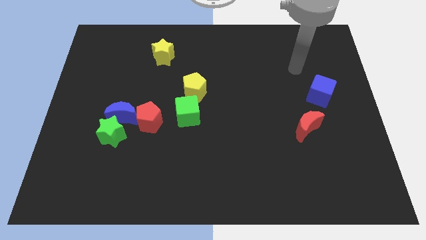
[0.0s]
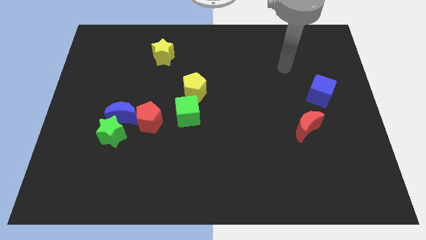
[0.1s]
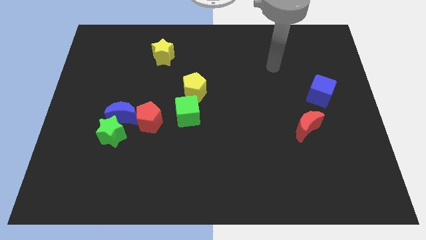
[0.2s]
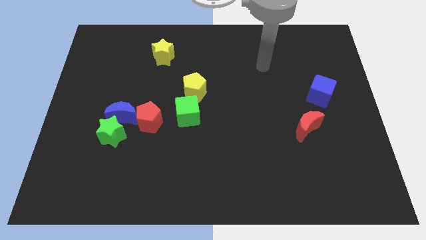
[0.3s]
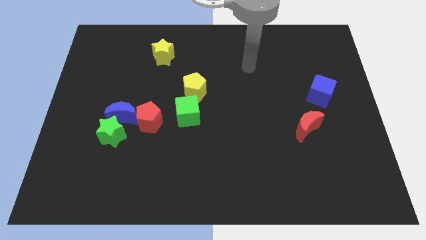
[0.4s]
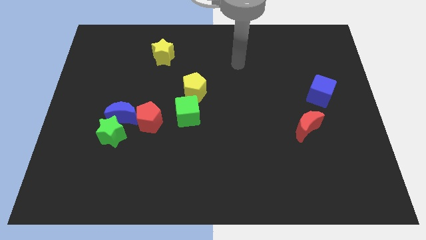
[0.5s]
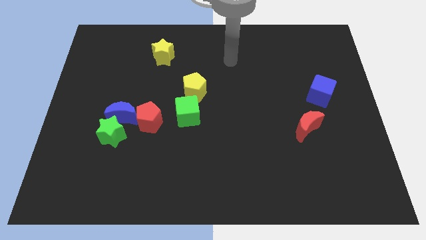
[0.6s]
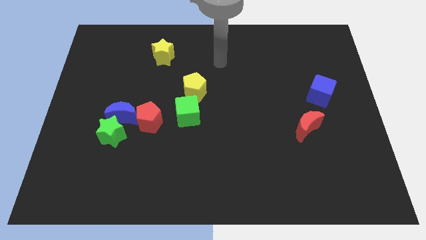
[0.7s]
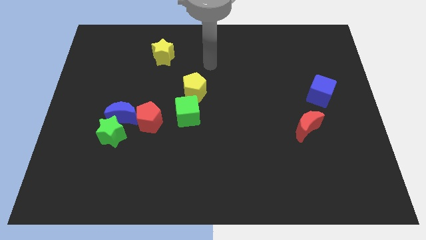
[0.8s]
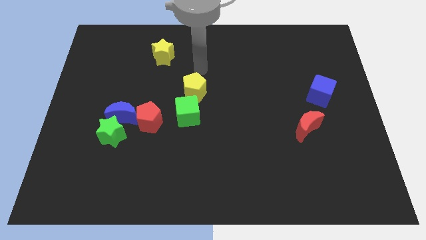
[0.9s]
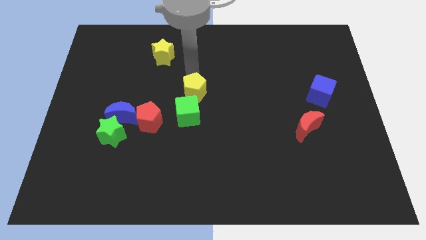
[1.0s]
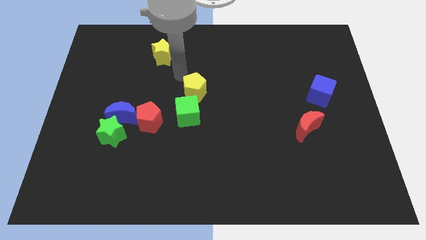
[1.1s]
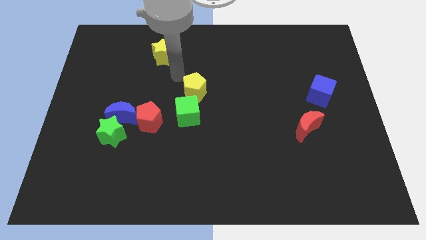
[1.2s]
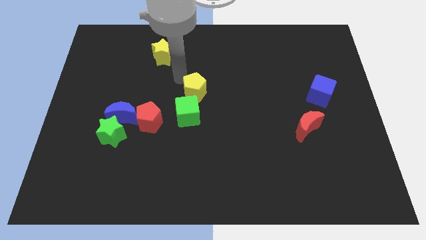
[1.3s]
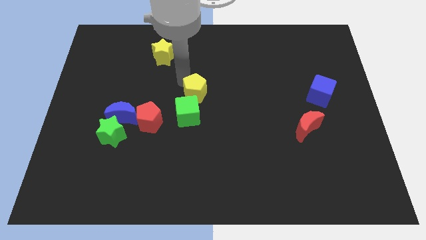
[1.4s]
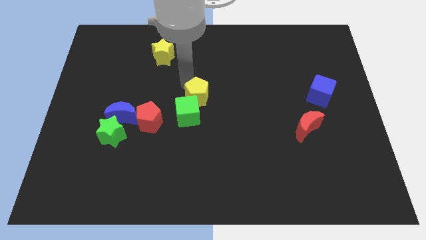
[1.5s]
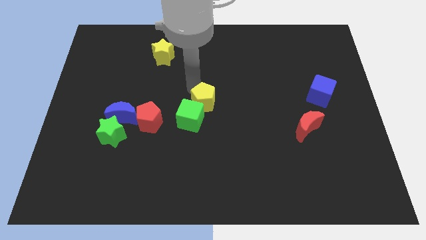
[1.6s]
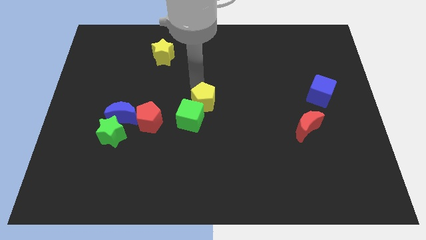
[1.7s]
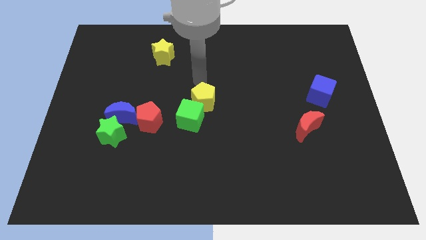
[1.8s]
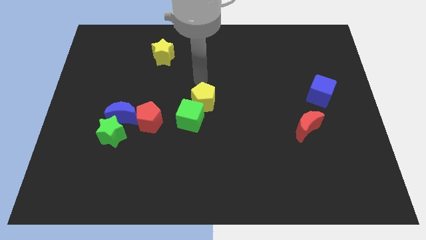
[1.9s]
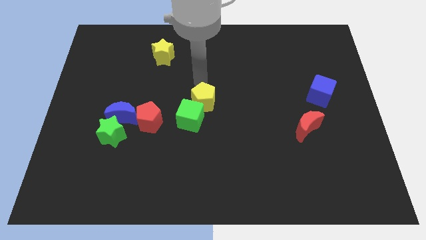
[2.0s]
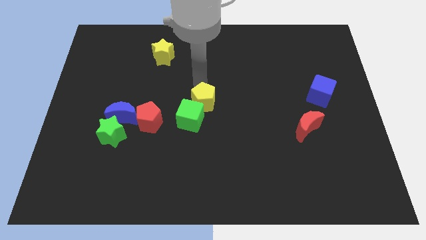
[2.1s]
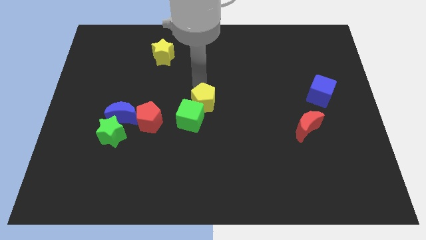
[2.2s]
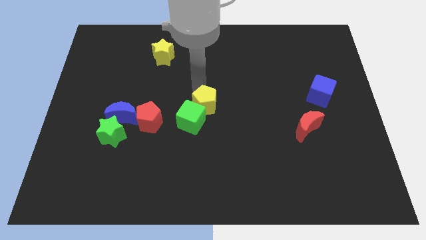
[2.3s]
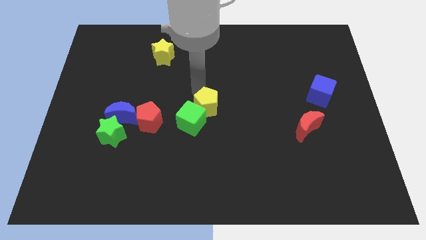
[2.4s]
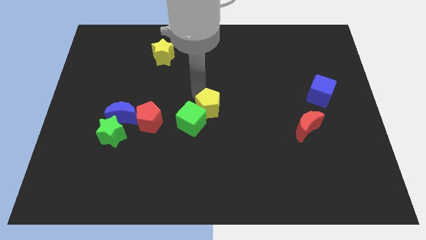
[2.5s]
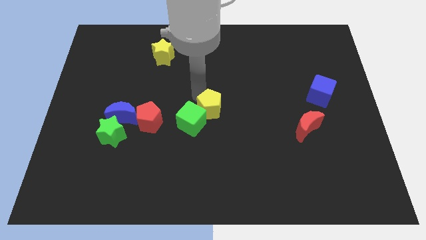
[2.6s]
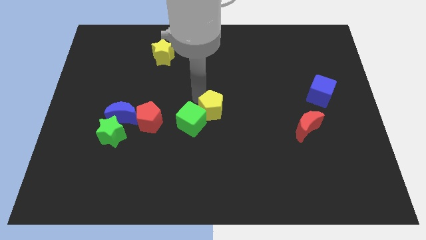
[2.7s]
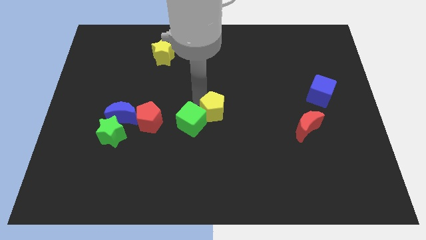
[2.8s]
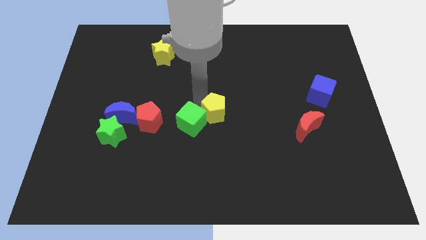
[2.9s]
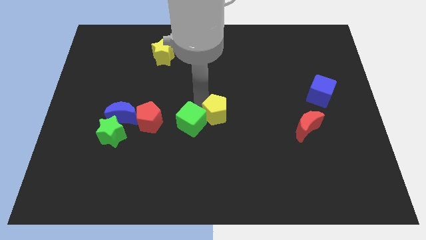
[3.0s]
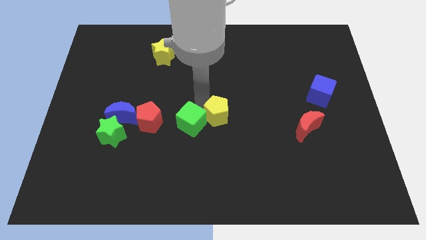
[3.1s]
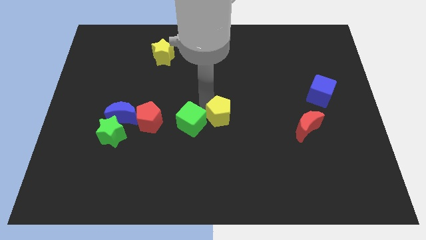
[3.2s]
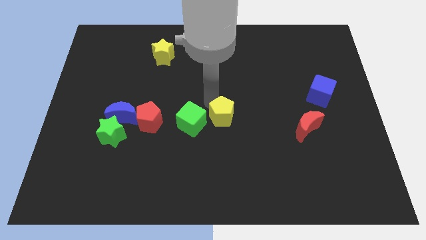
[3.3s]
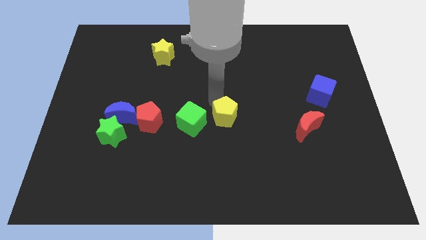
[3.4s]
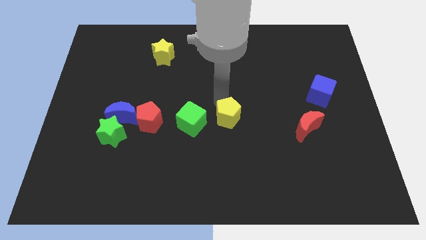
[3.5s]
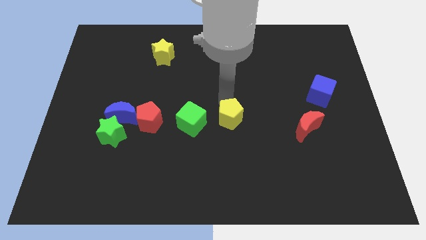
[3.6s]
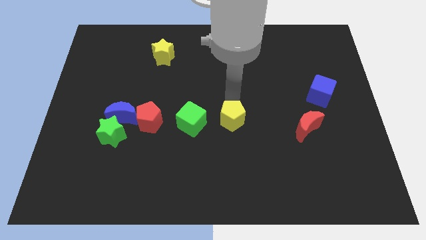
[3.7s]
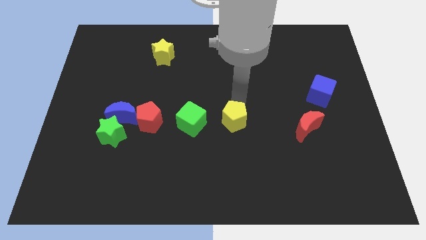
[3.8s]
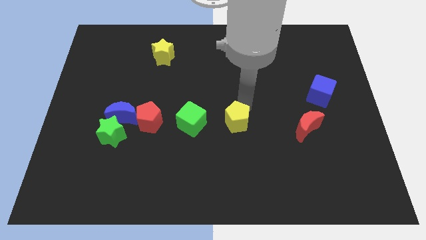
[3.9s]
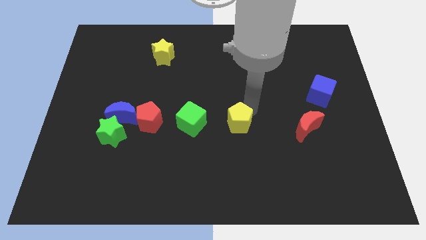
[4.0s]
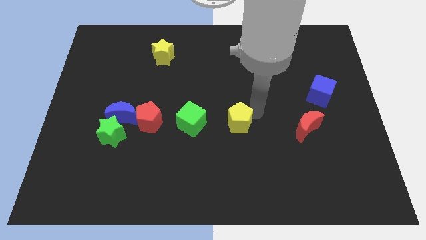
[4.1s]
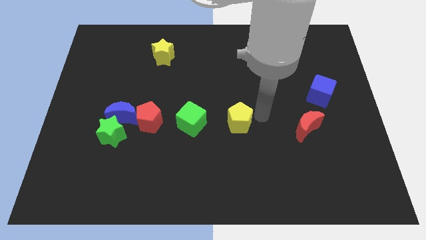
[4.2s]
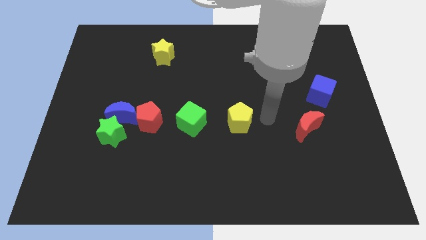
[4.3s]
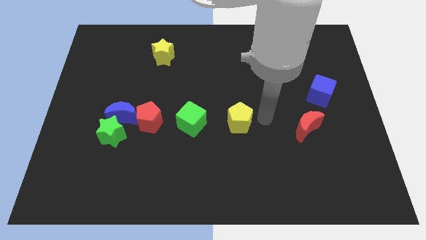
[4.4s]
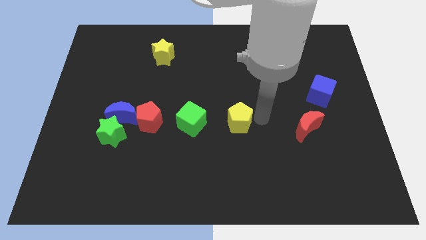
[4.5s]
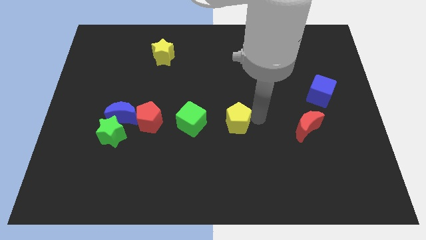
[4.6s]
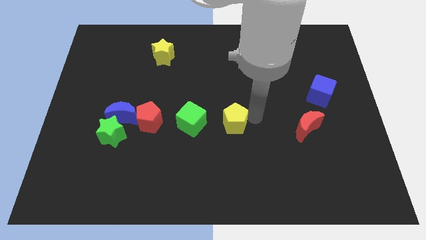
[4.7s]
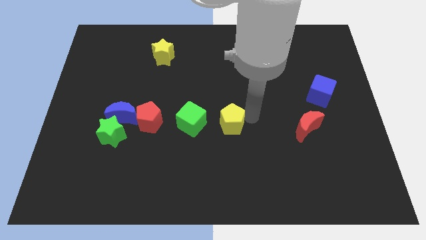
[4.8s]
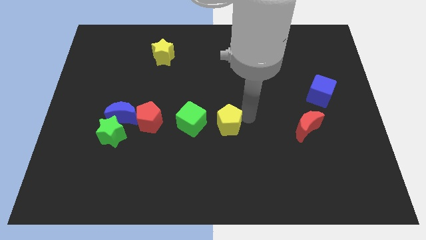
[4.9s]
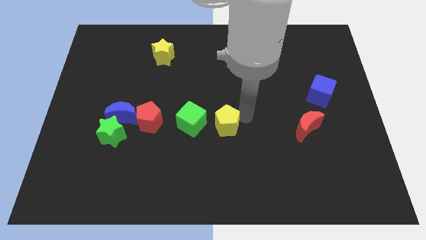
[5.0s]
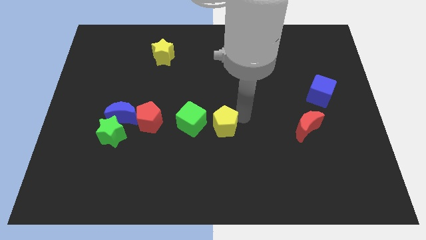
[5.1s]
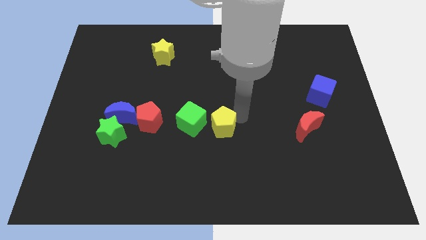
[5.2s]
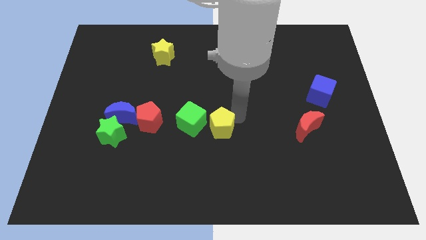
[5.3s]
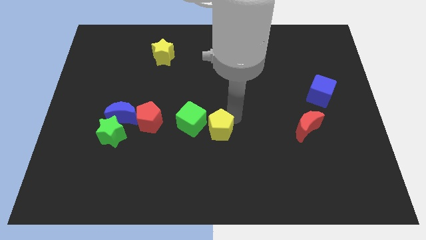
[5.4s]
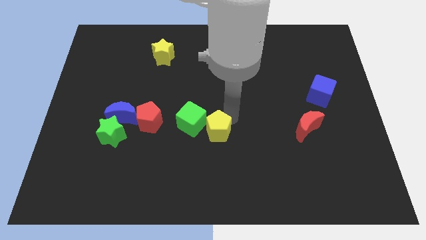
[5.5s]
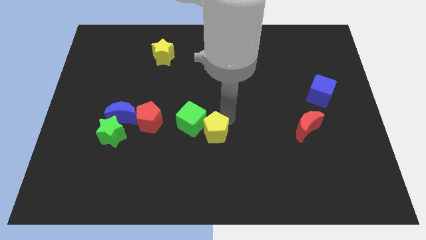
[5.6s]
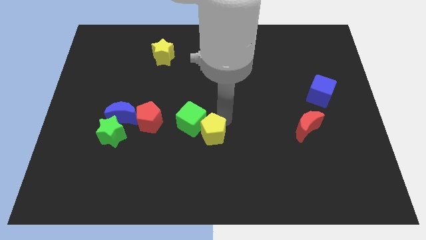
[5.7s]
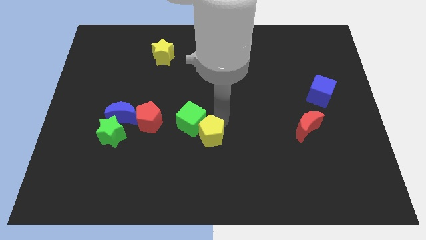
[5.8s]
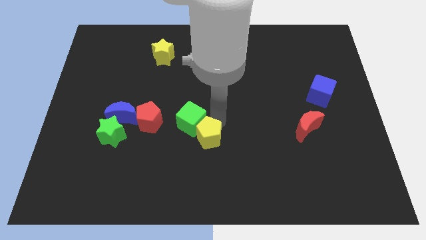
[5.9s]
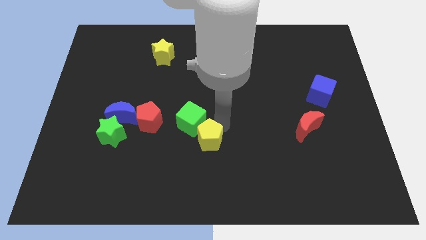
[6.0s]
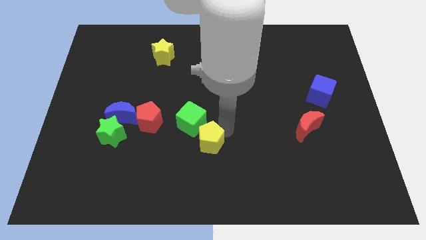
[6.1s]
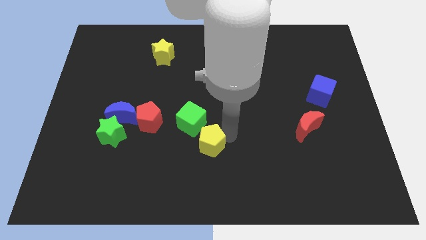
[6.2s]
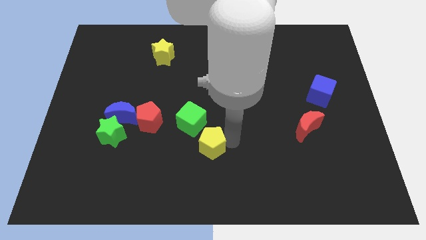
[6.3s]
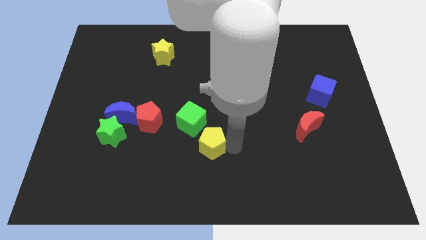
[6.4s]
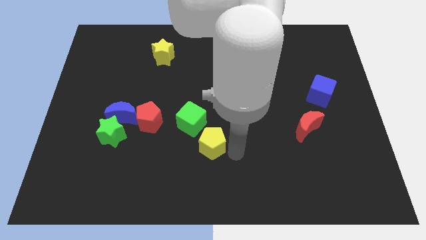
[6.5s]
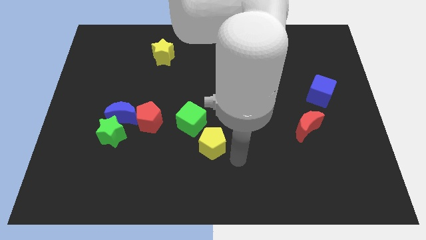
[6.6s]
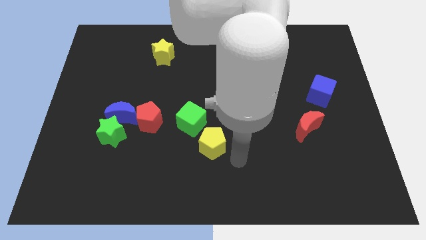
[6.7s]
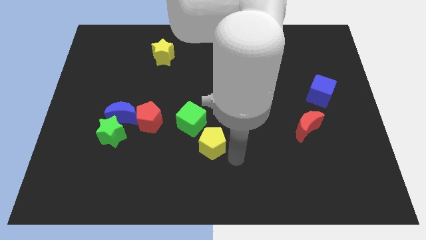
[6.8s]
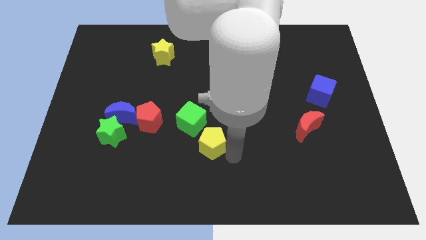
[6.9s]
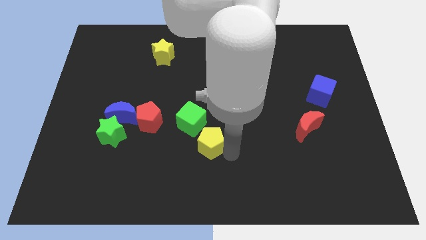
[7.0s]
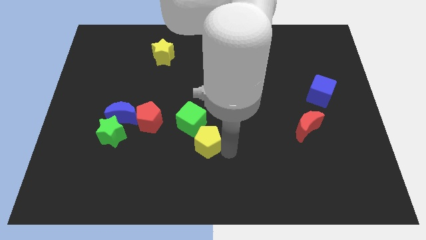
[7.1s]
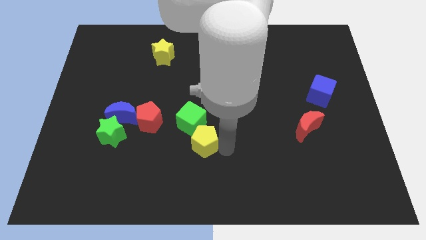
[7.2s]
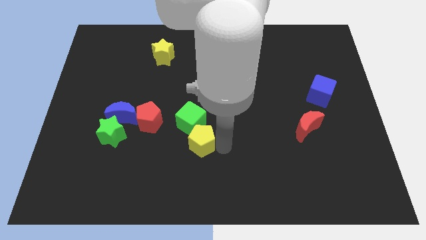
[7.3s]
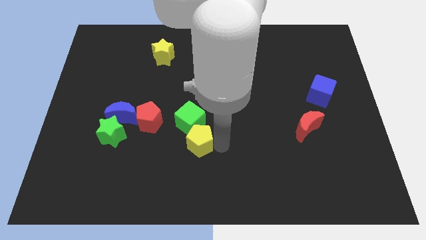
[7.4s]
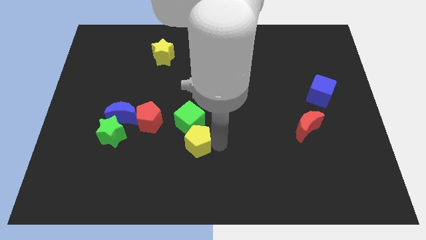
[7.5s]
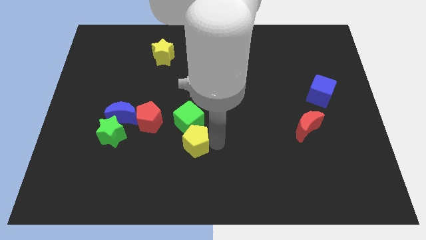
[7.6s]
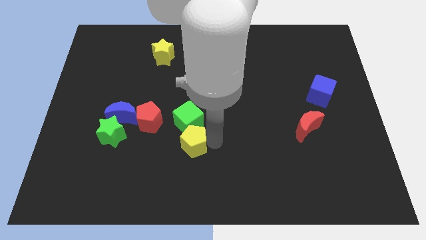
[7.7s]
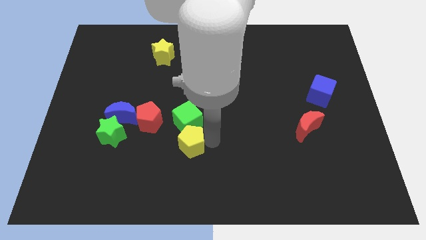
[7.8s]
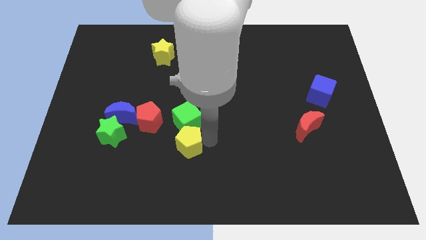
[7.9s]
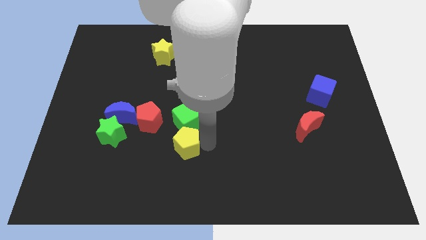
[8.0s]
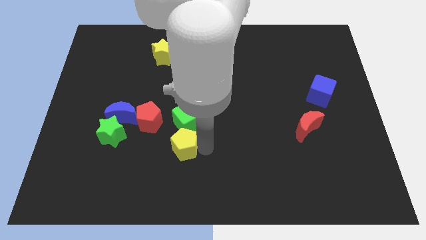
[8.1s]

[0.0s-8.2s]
push the yellow pentagon a bit diagonally down and left

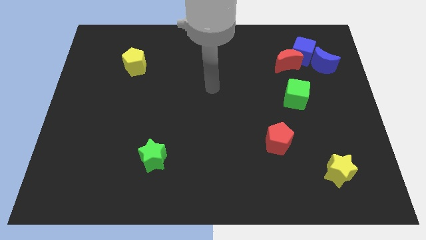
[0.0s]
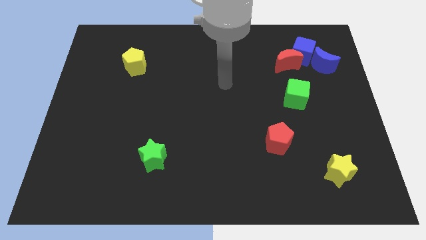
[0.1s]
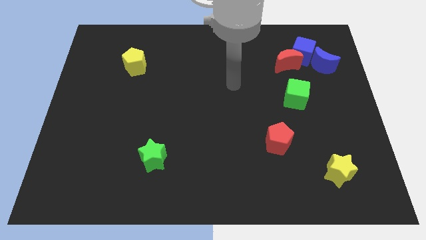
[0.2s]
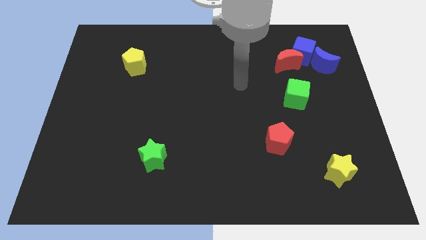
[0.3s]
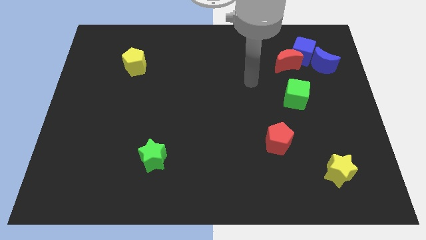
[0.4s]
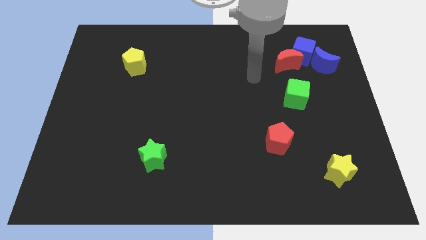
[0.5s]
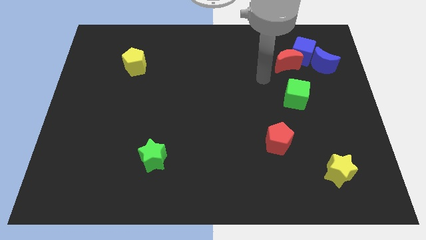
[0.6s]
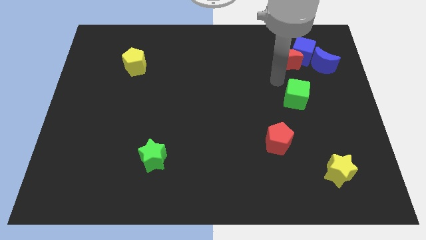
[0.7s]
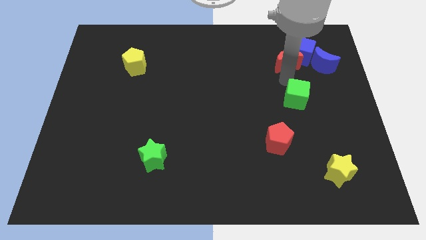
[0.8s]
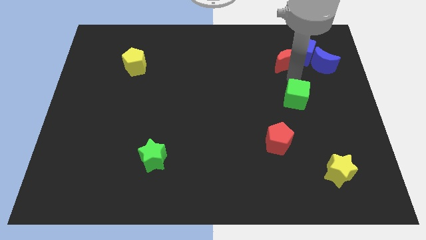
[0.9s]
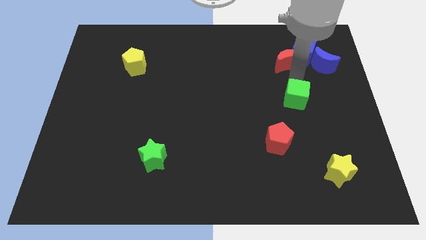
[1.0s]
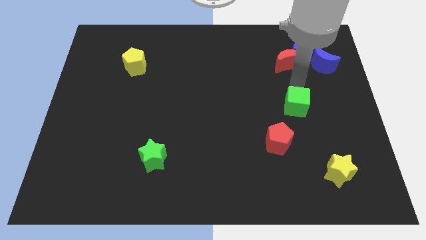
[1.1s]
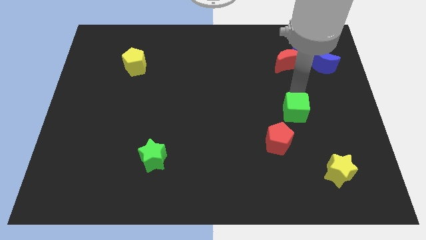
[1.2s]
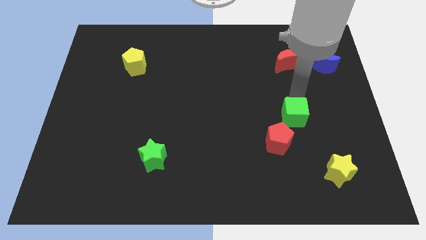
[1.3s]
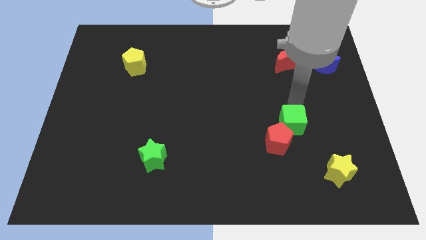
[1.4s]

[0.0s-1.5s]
push the green cube somewhat down
